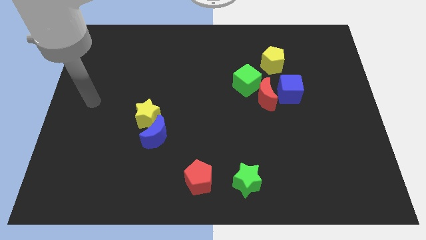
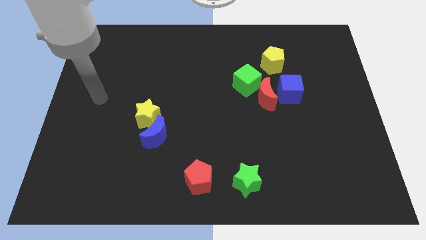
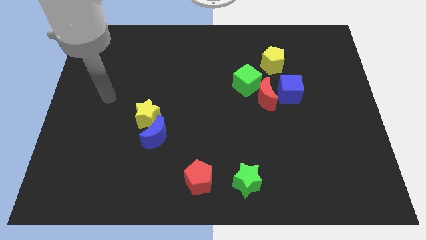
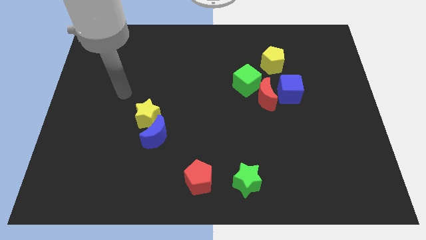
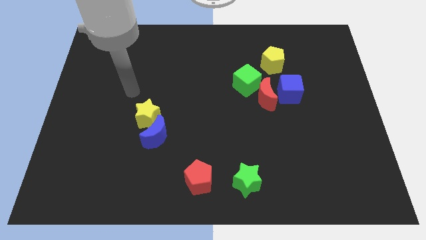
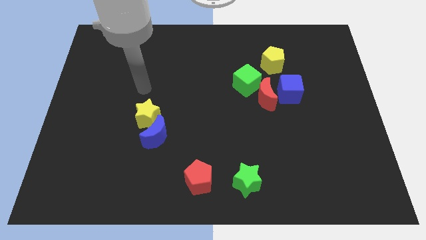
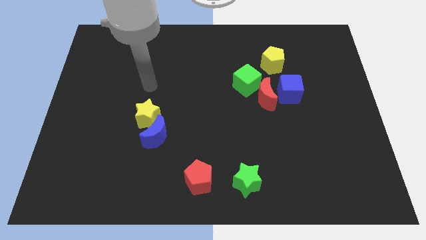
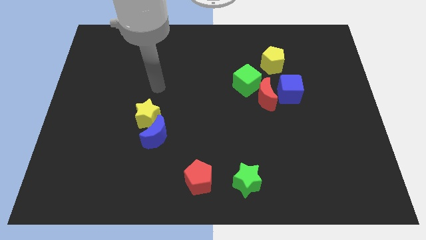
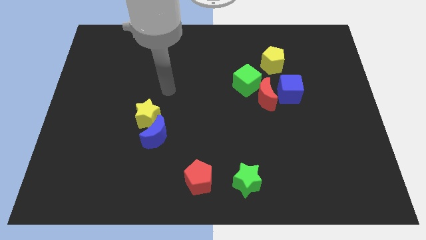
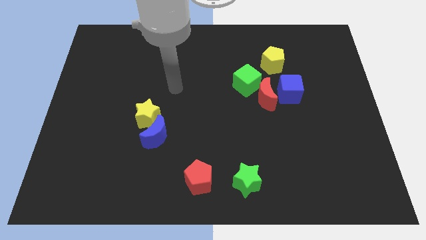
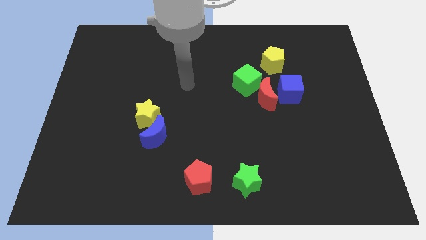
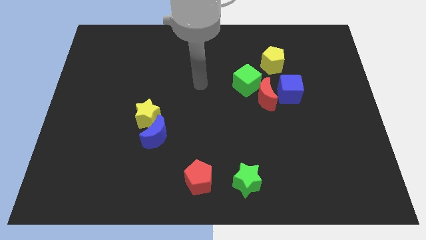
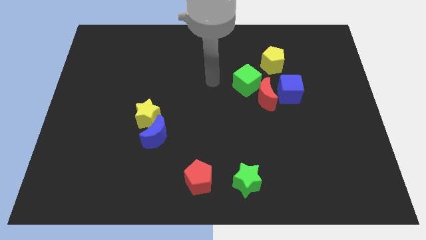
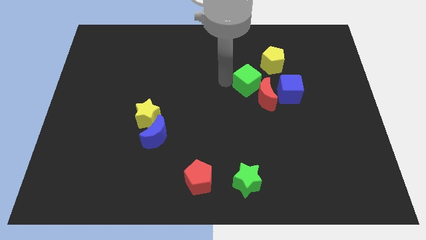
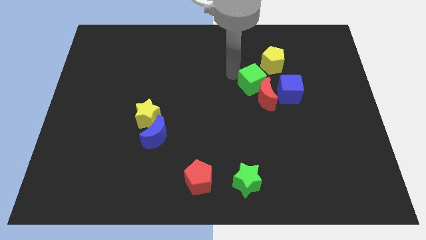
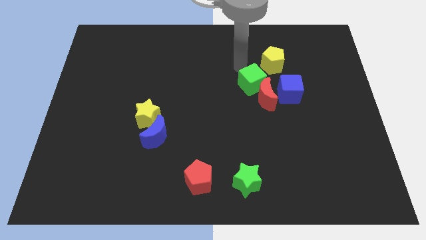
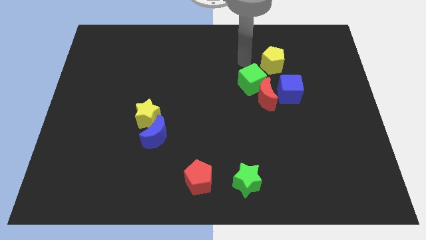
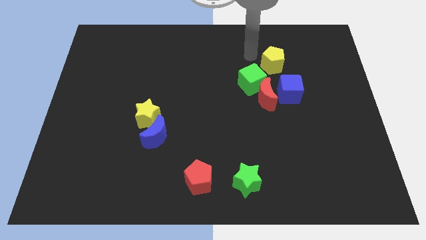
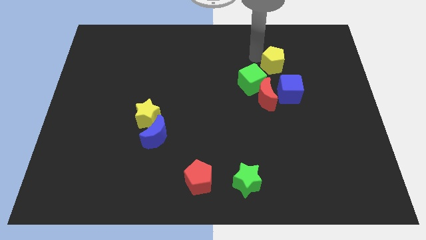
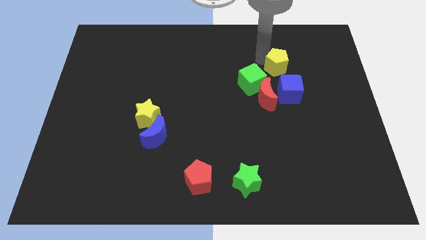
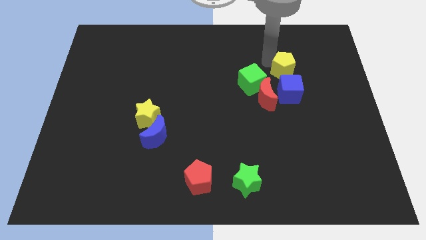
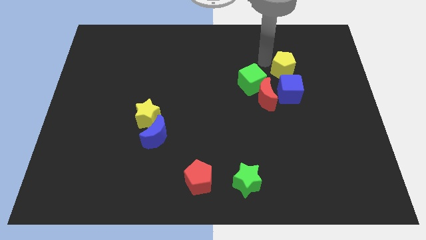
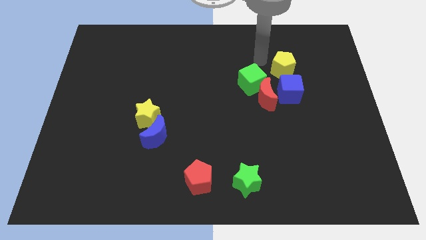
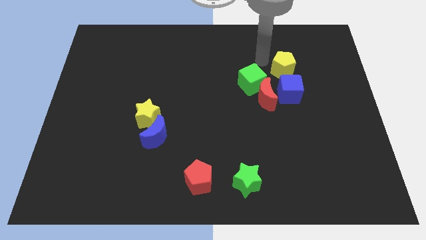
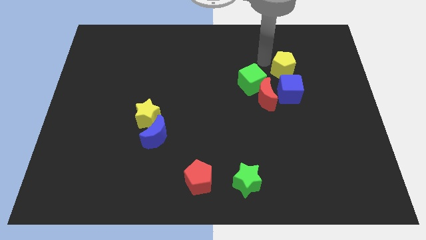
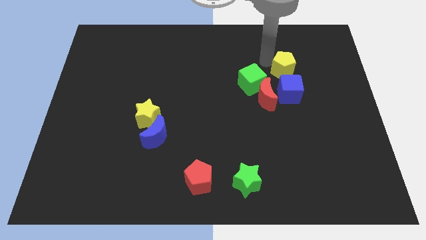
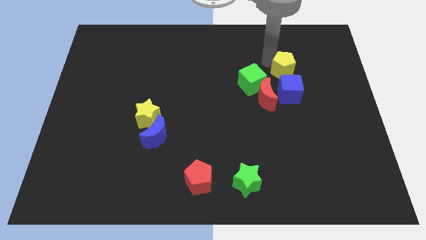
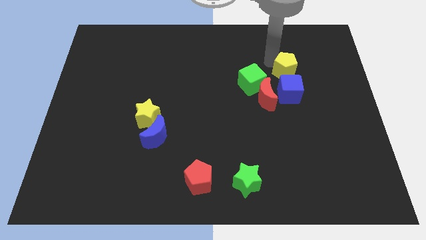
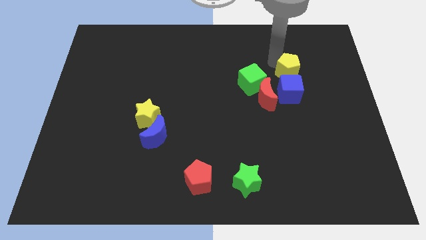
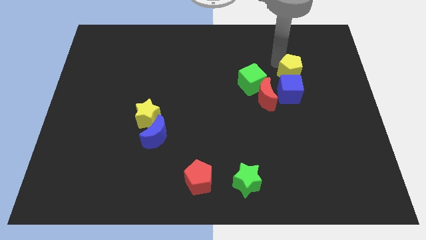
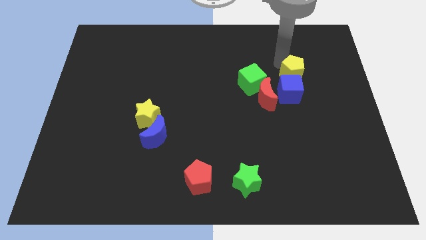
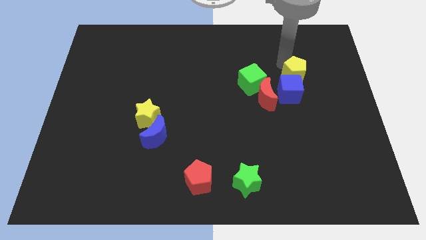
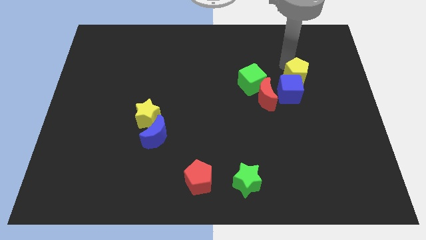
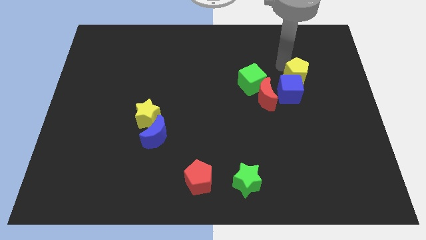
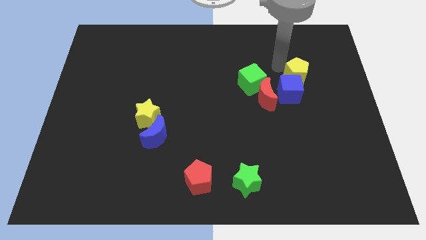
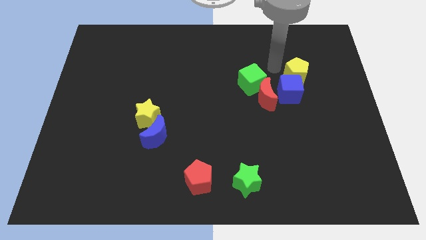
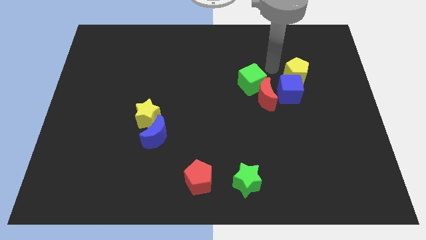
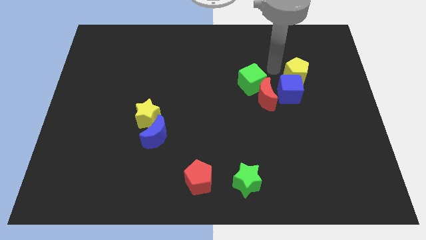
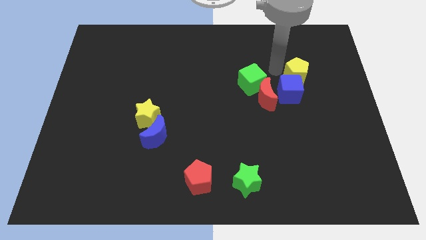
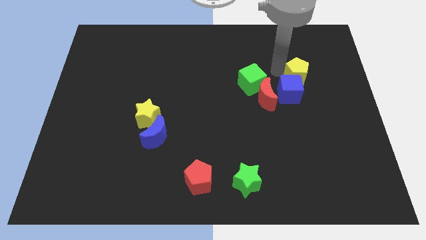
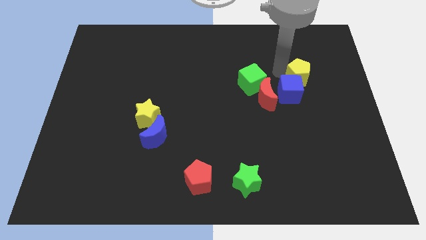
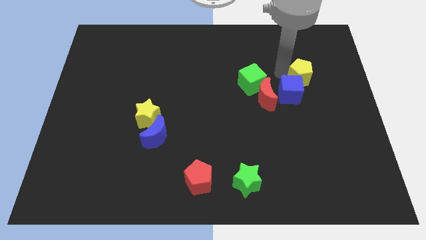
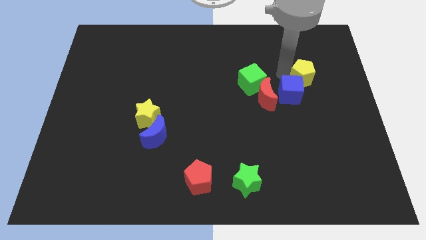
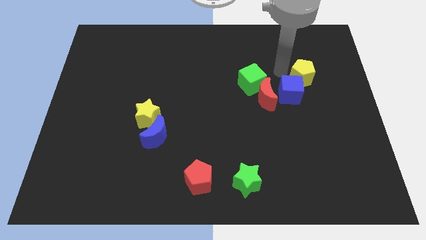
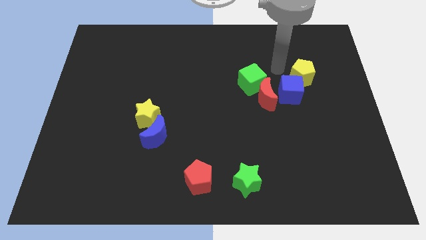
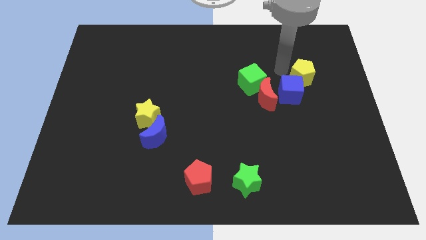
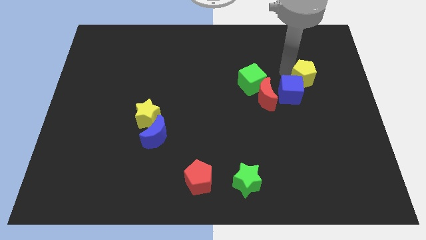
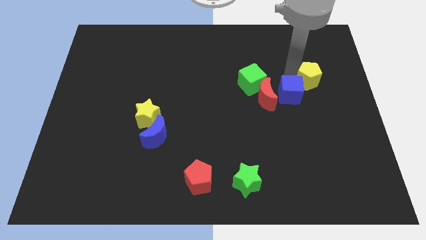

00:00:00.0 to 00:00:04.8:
push the yellow pentagon to the right of the blue cube

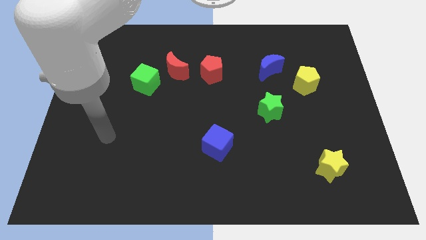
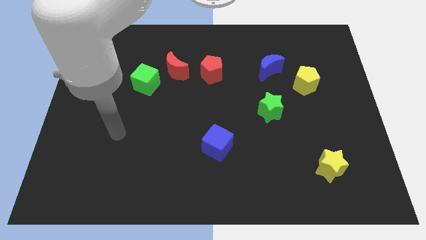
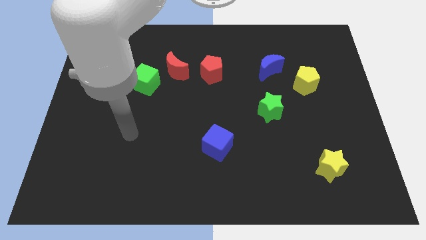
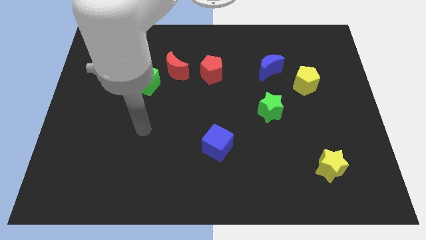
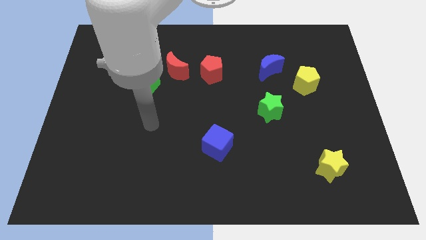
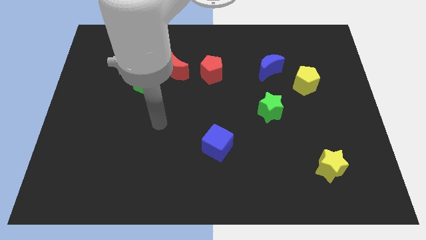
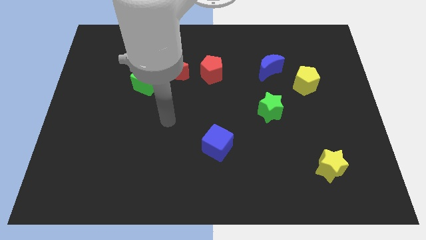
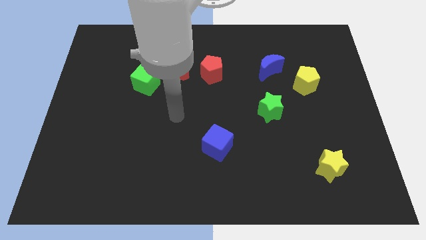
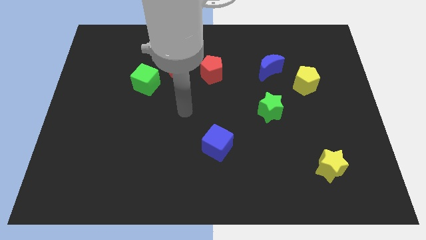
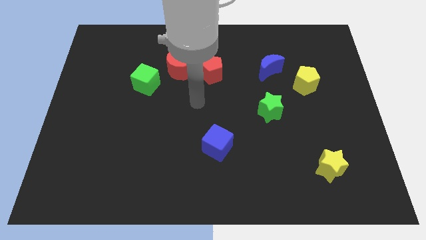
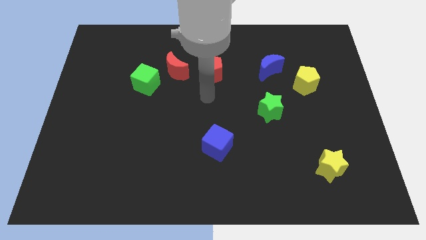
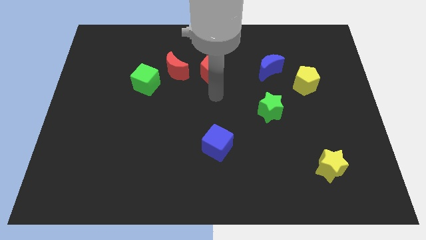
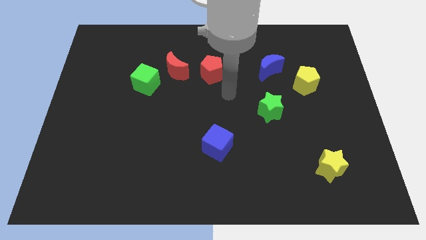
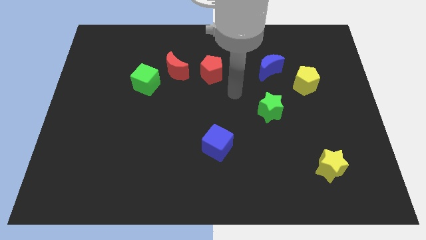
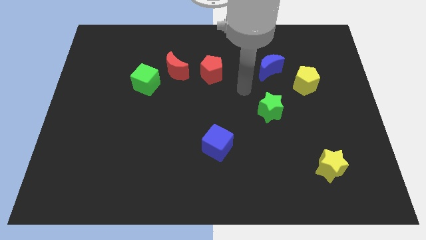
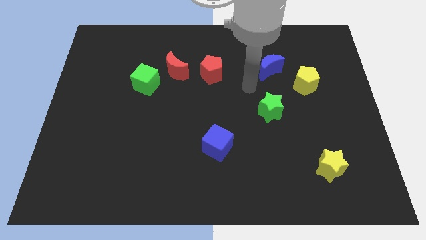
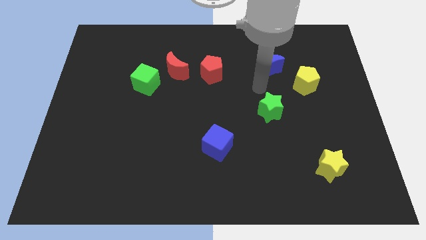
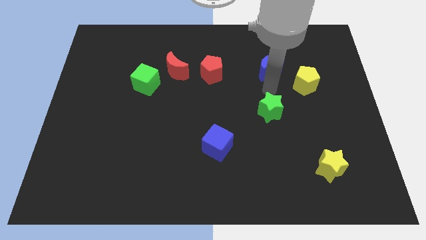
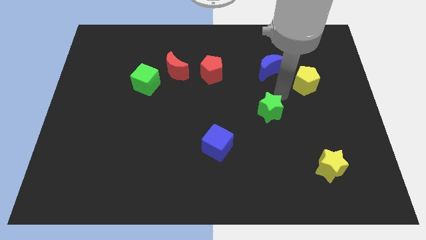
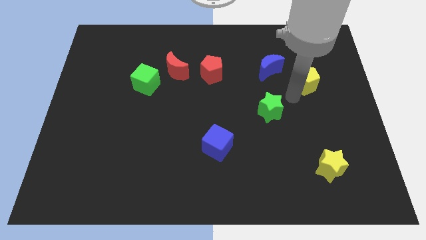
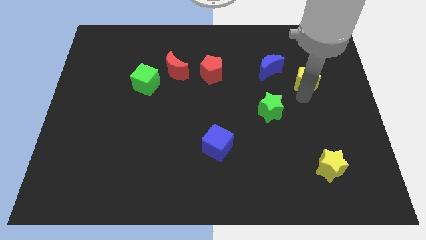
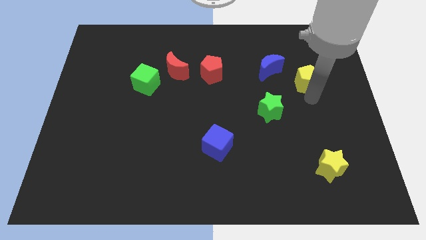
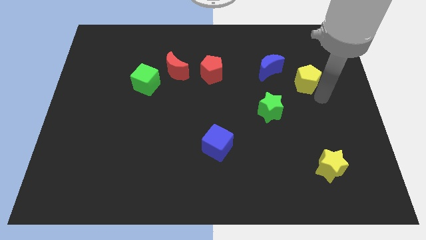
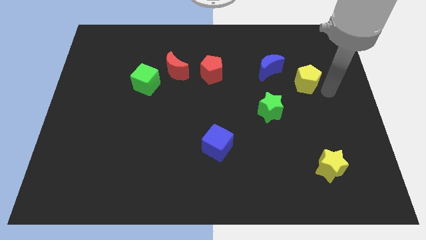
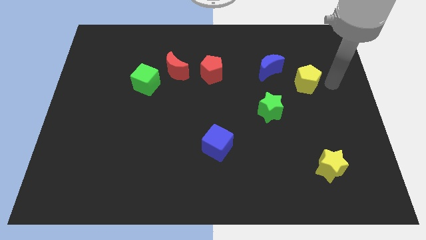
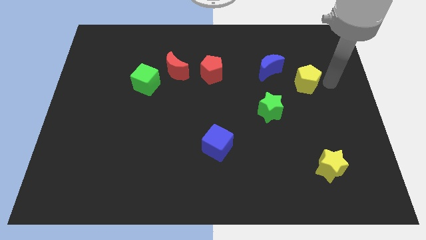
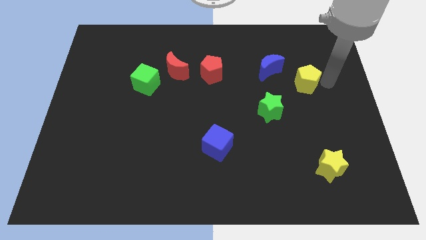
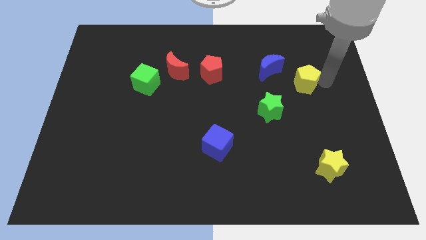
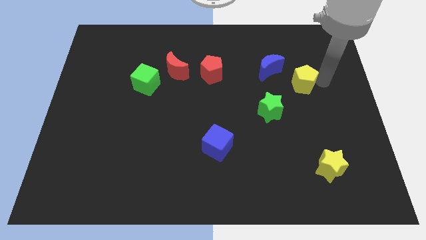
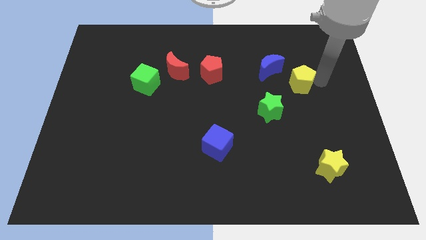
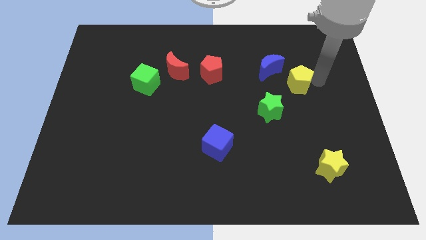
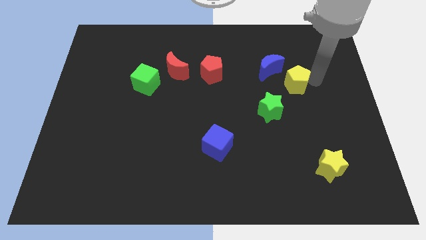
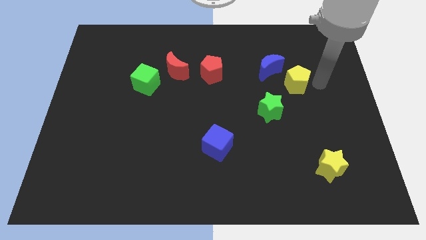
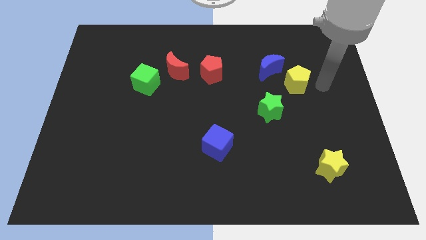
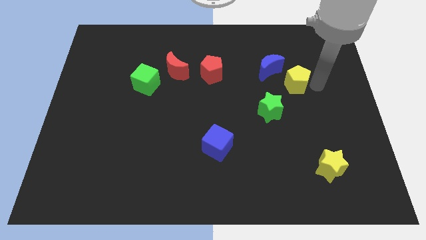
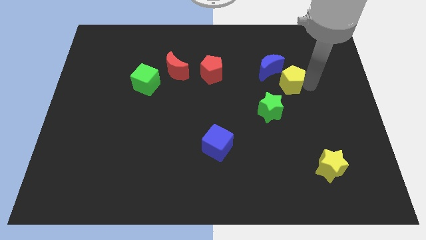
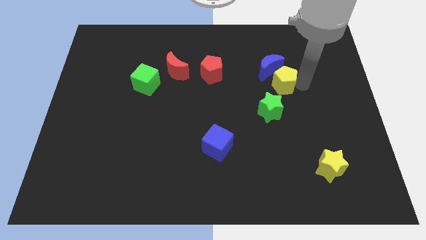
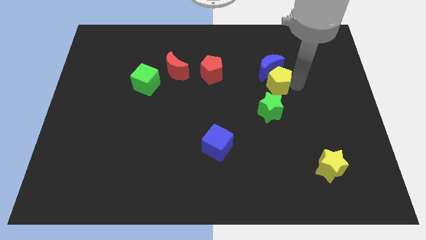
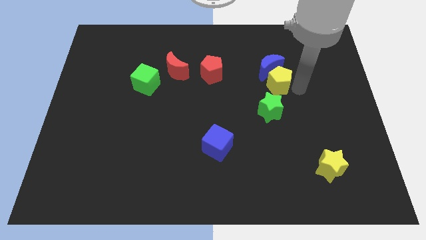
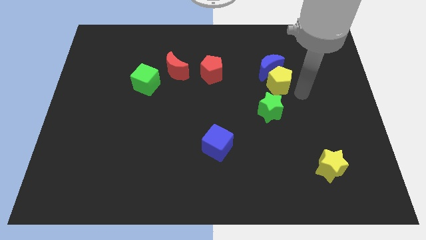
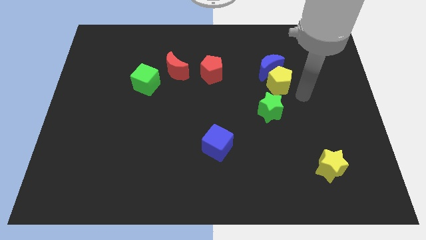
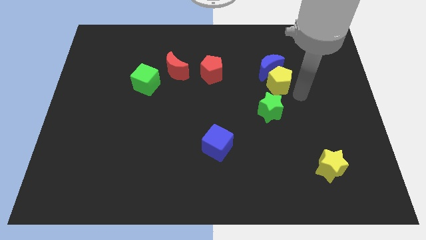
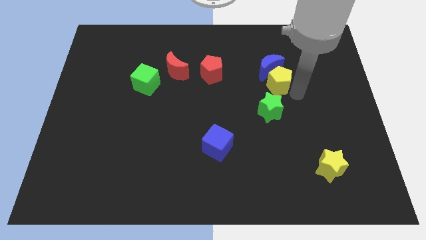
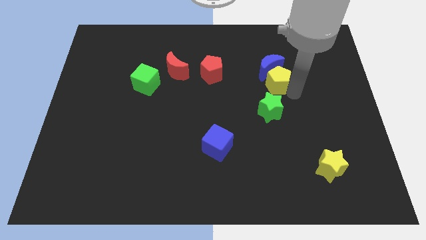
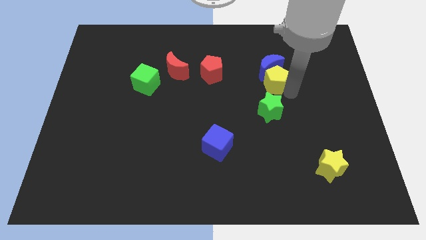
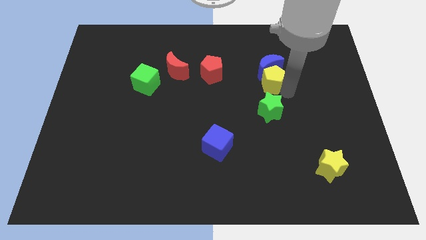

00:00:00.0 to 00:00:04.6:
slide the yellow pentagon to the right side of the red pentagon
